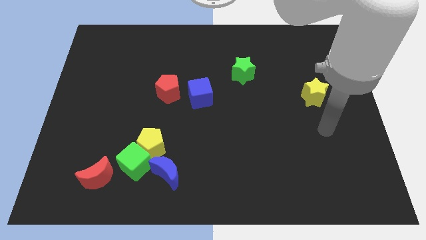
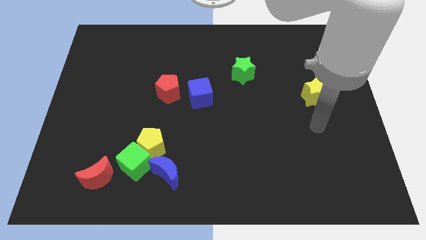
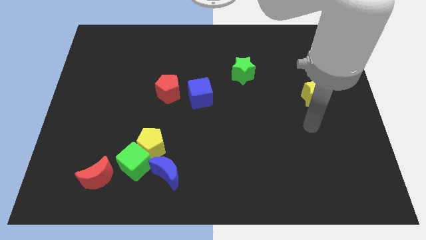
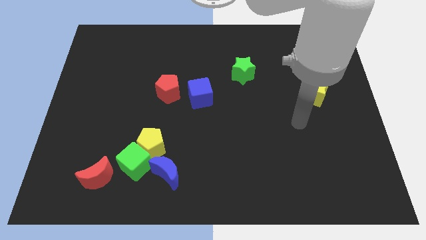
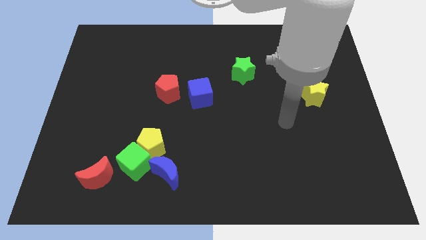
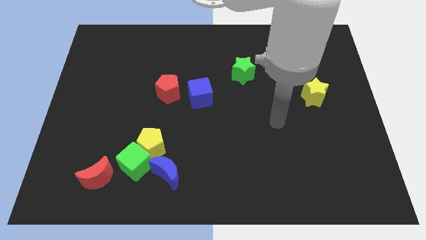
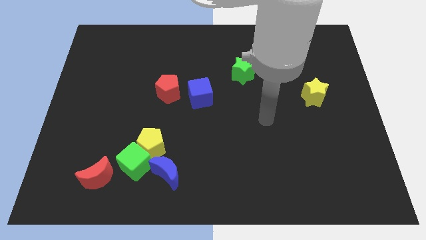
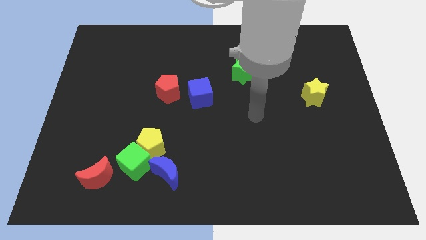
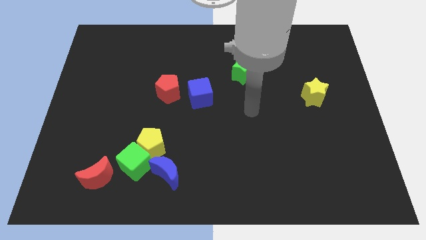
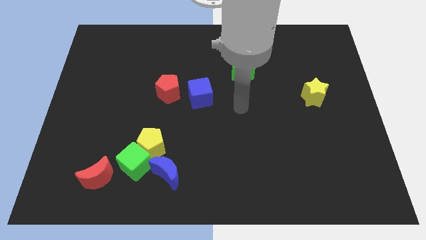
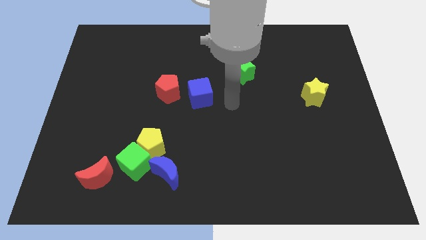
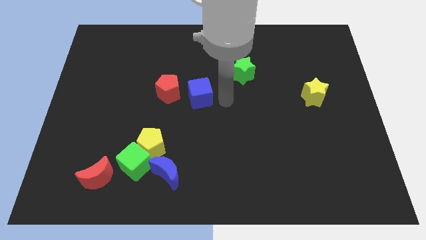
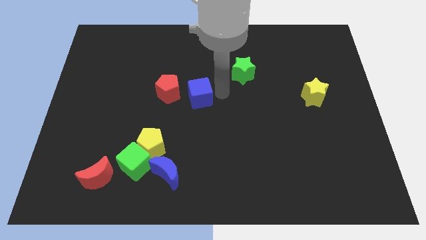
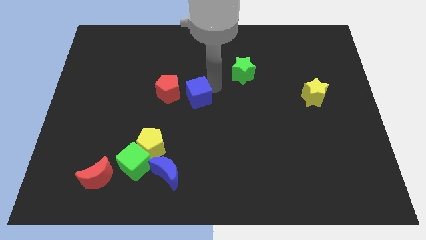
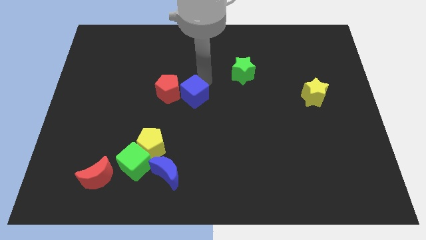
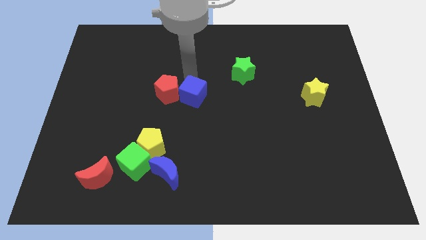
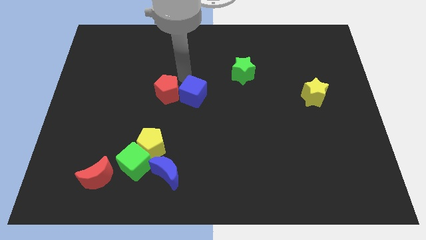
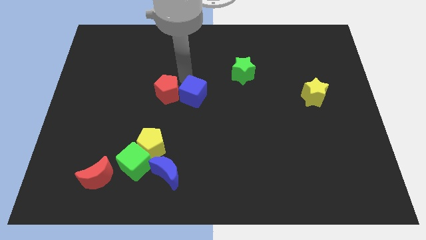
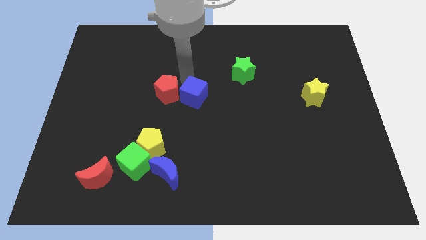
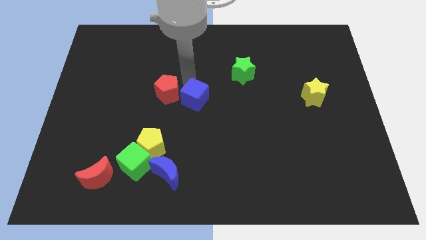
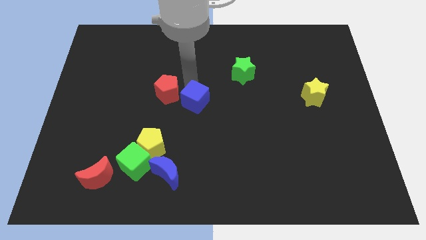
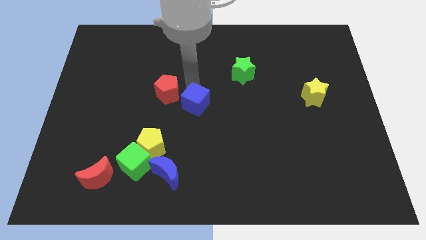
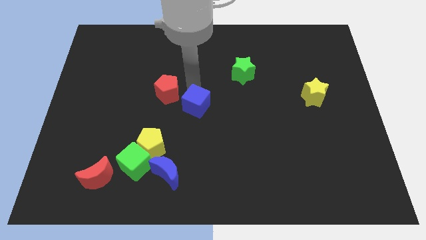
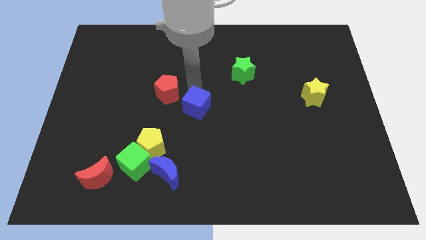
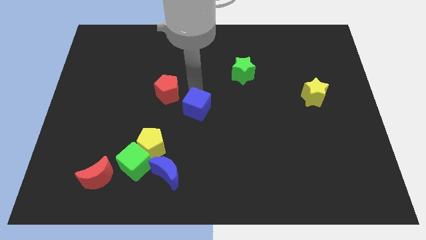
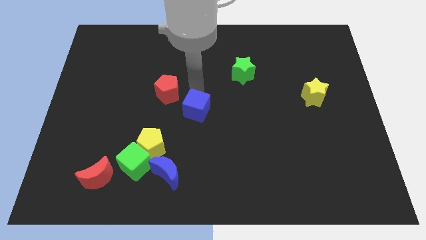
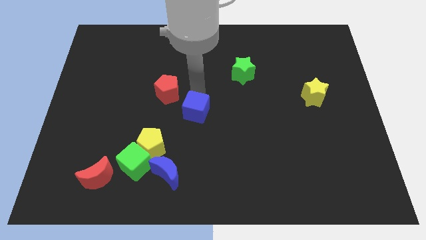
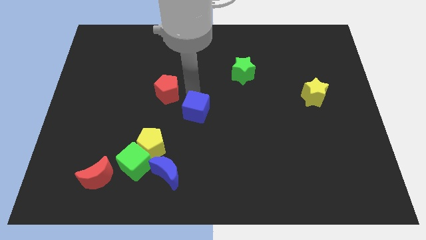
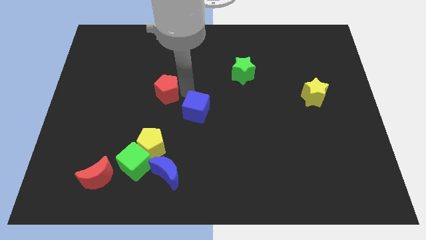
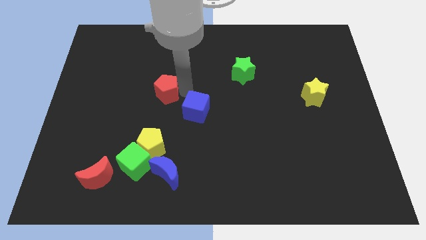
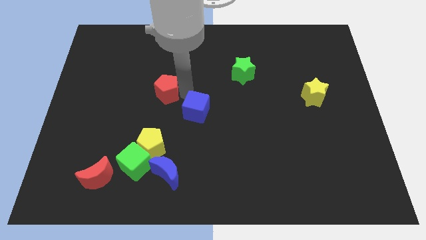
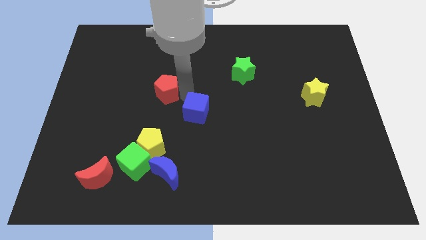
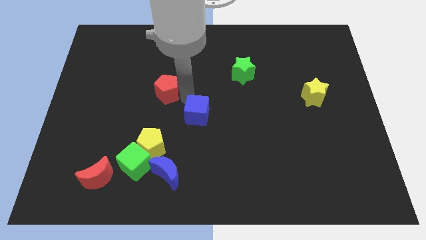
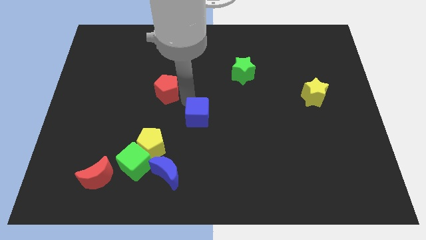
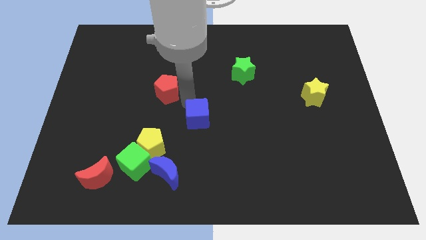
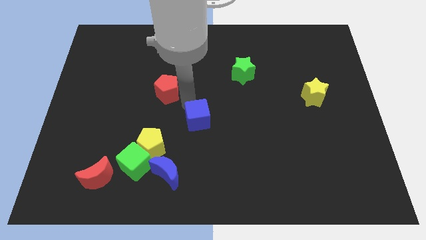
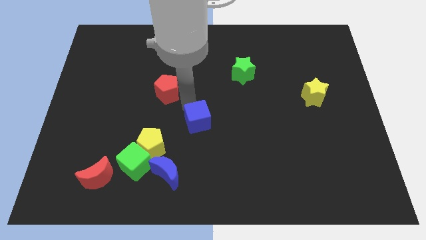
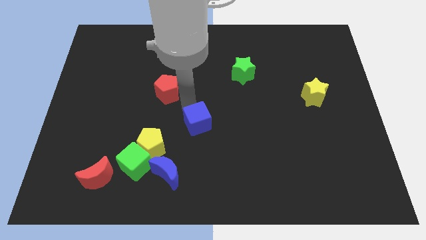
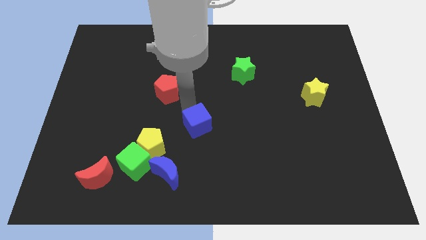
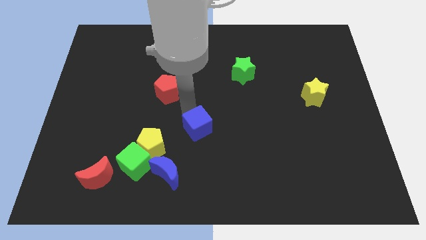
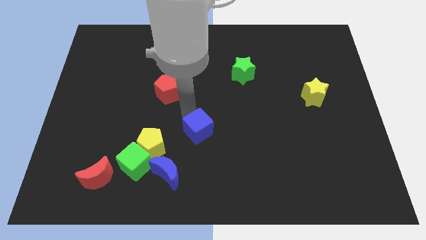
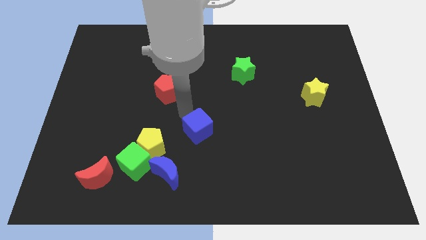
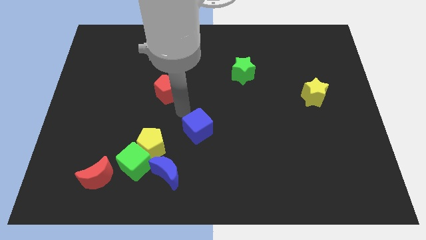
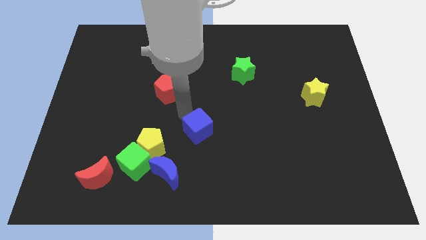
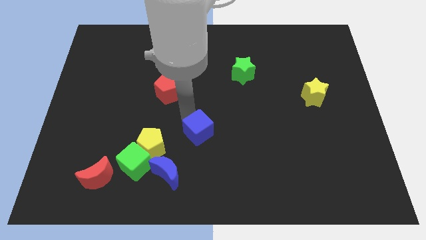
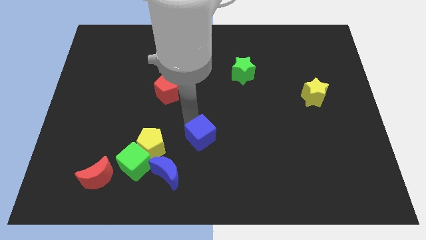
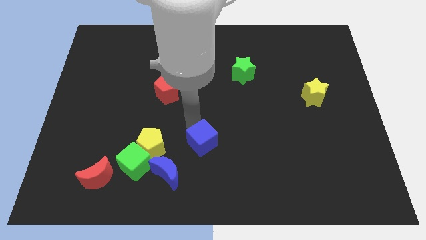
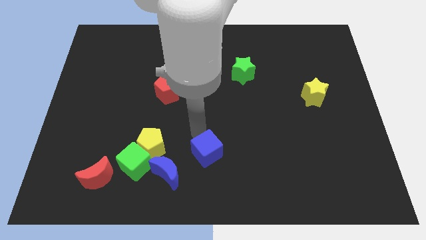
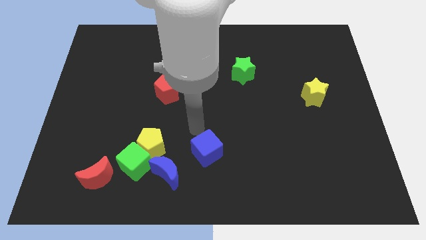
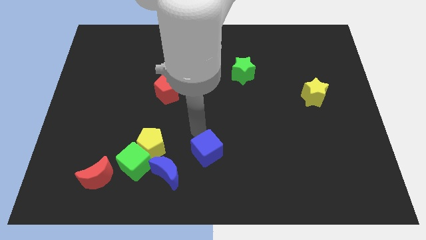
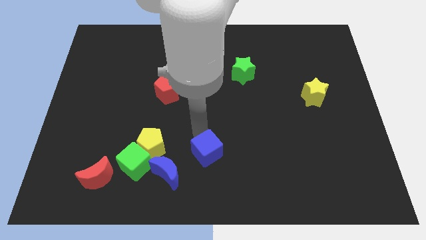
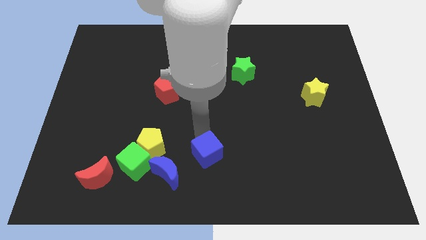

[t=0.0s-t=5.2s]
push the blue cube right of the blue moon

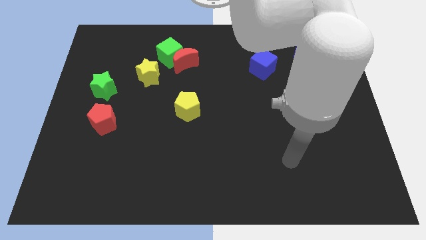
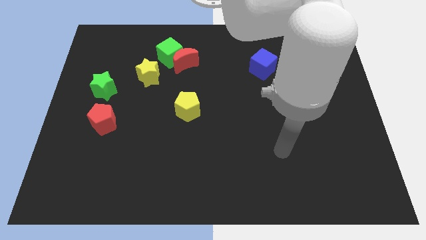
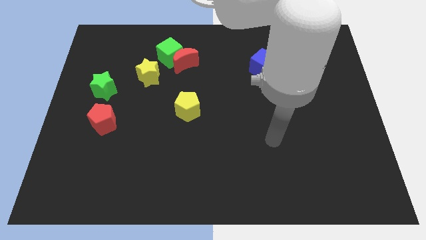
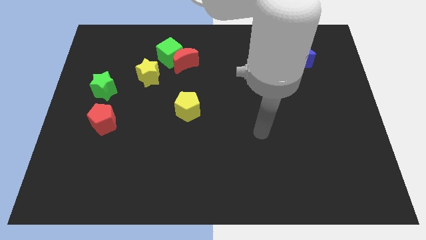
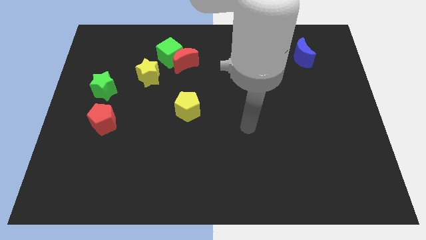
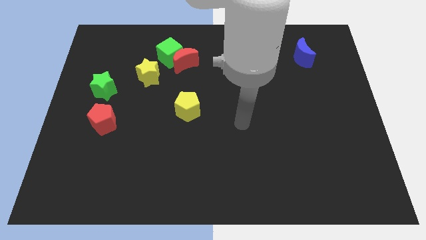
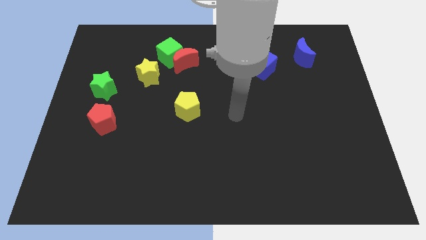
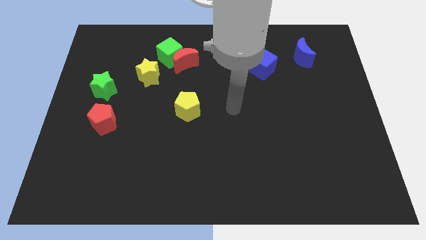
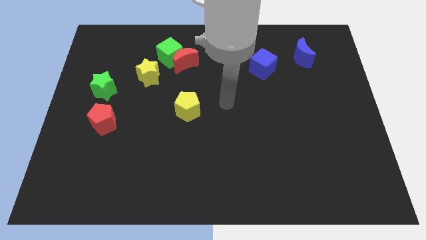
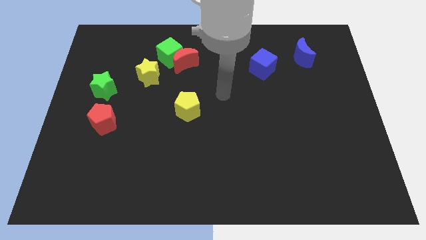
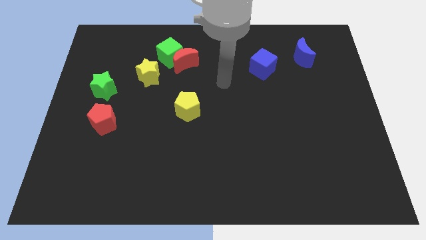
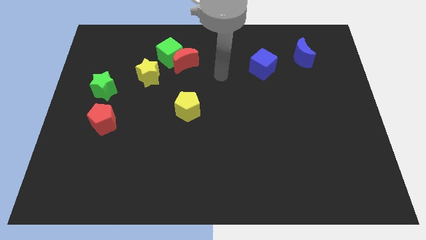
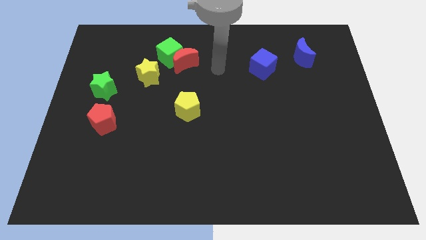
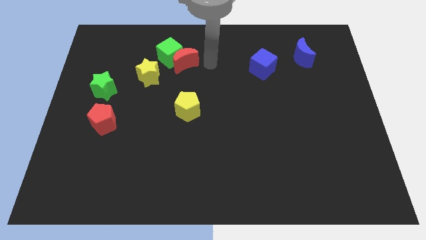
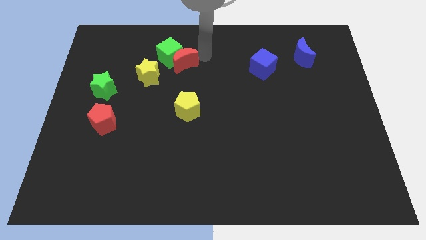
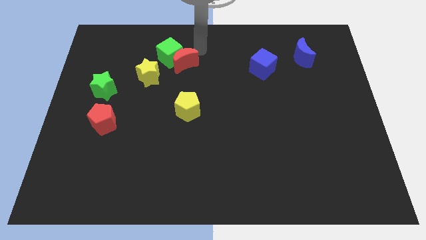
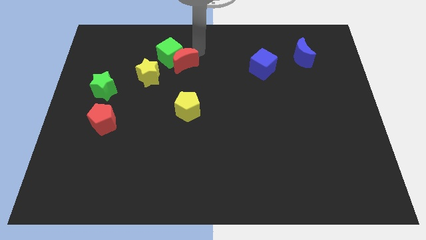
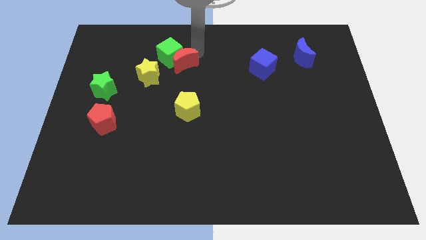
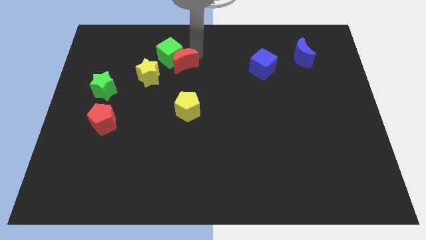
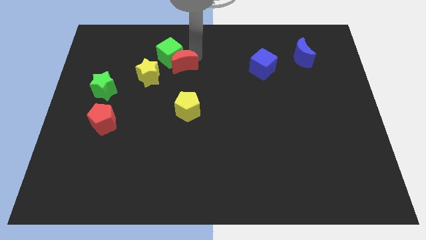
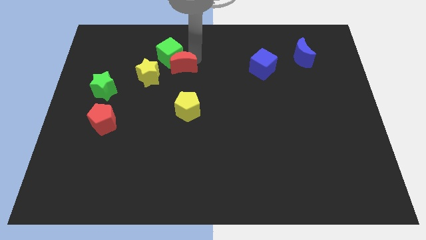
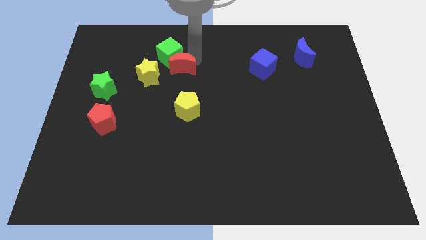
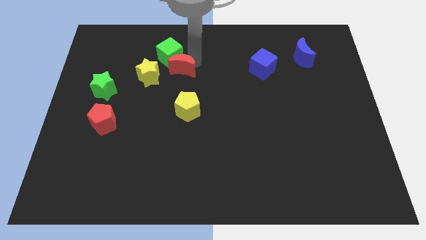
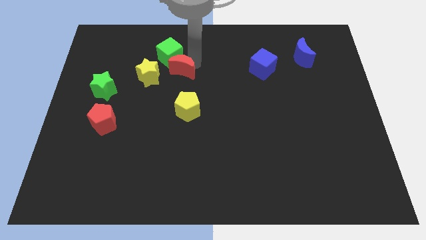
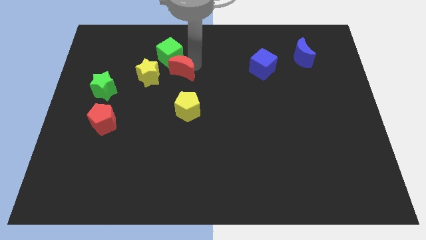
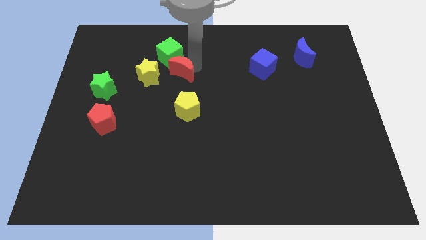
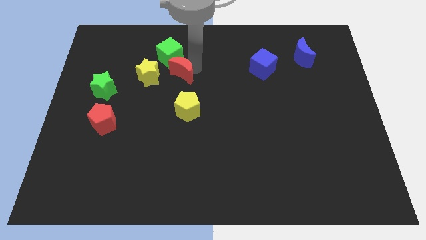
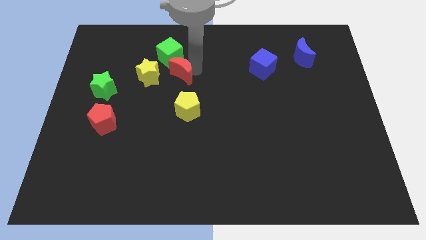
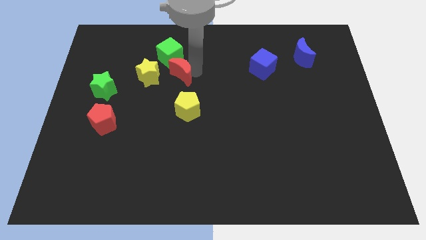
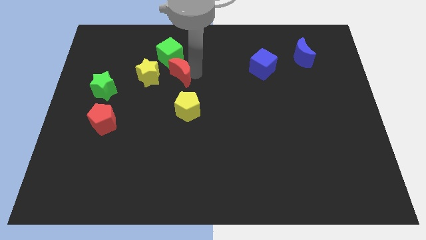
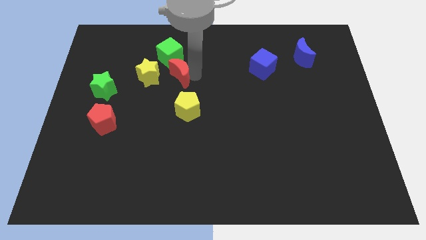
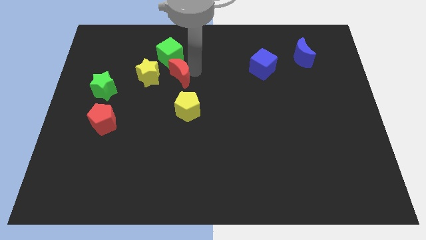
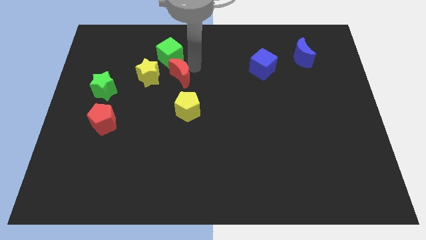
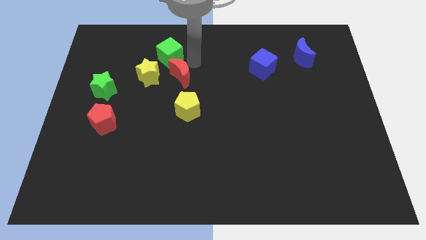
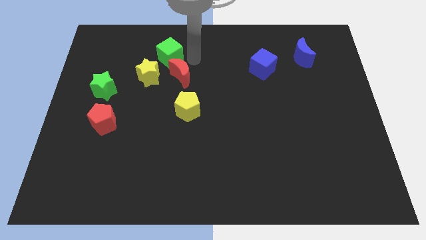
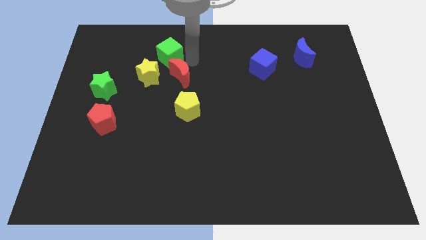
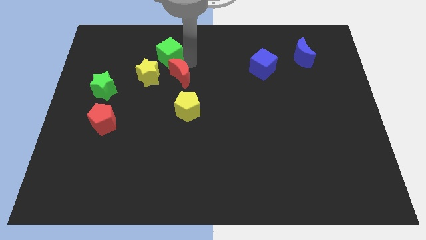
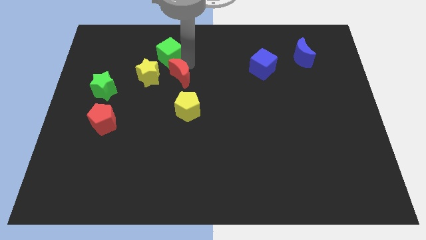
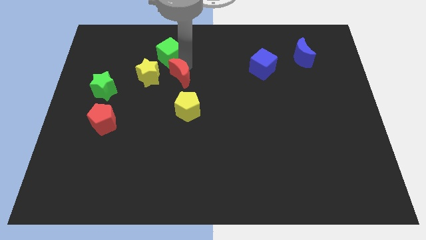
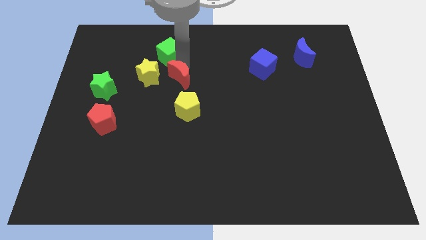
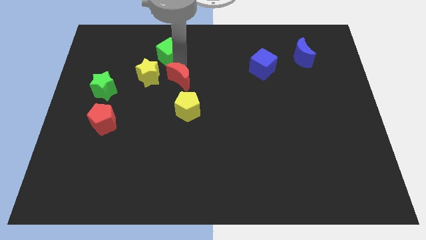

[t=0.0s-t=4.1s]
push the red moon to the bottom right side of the yellow star
